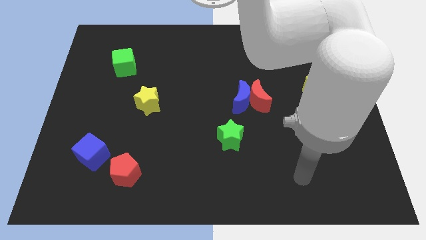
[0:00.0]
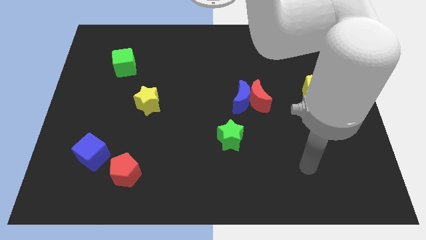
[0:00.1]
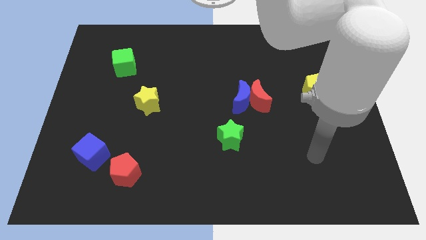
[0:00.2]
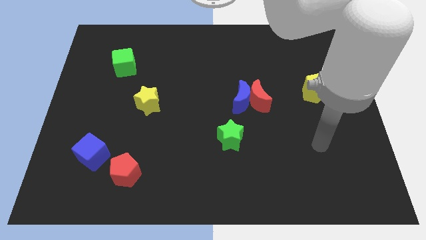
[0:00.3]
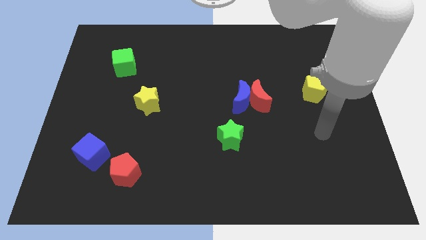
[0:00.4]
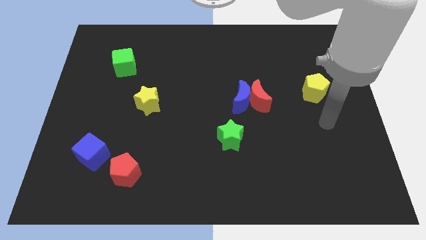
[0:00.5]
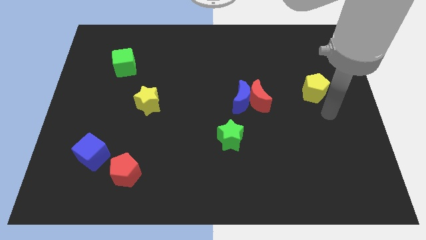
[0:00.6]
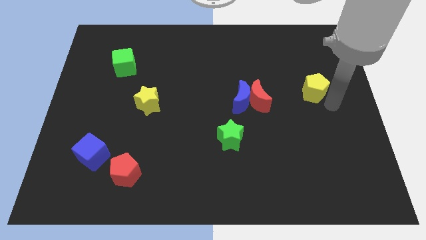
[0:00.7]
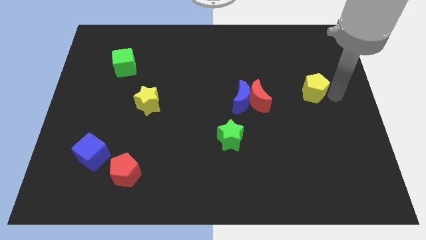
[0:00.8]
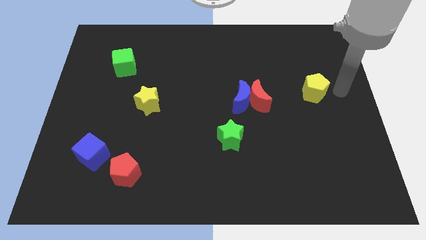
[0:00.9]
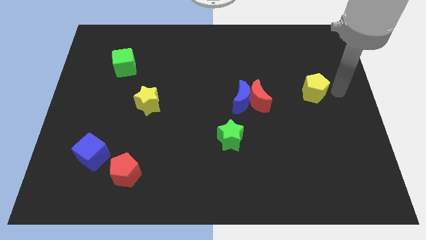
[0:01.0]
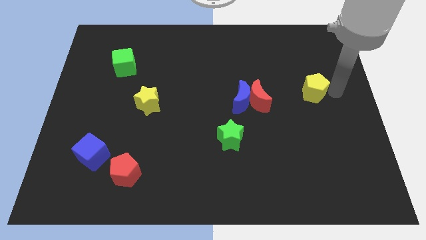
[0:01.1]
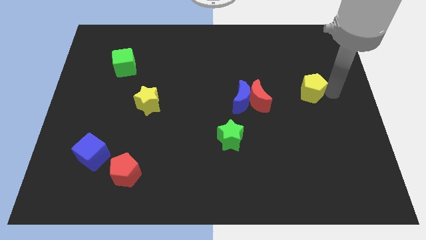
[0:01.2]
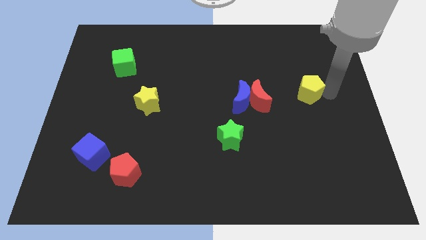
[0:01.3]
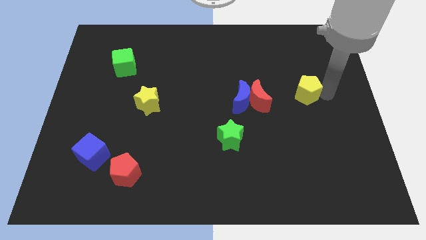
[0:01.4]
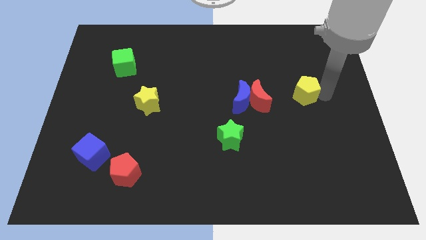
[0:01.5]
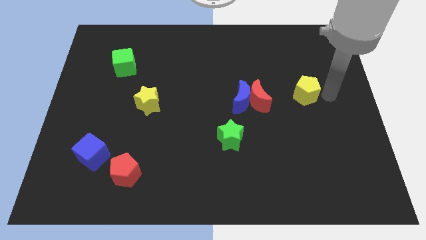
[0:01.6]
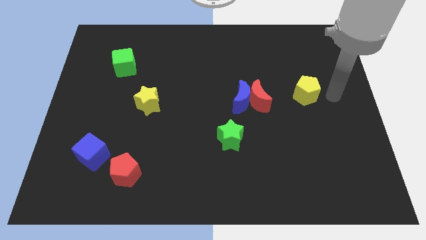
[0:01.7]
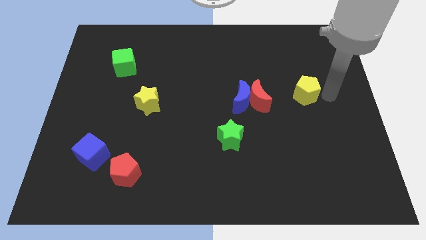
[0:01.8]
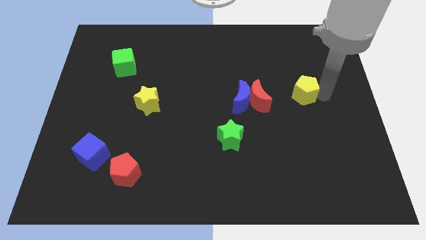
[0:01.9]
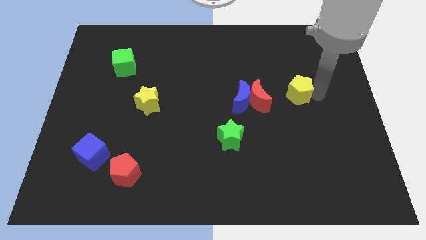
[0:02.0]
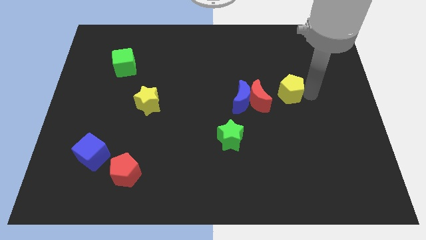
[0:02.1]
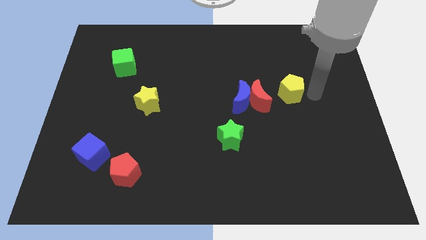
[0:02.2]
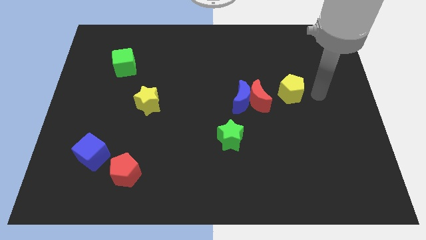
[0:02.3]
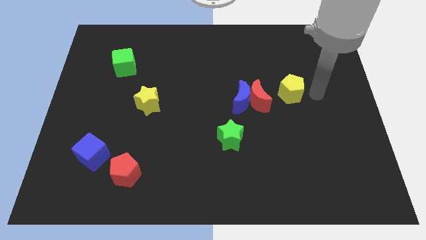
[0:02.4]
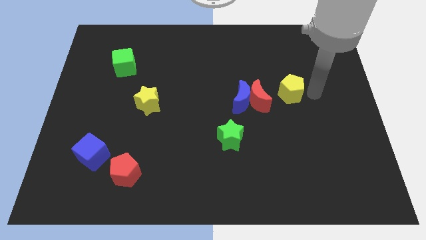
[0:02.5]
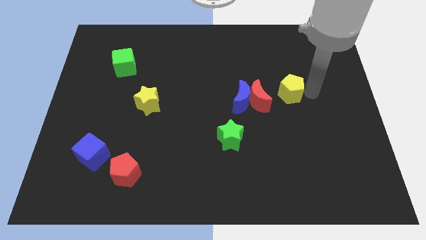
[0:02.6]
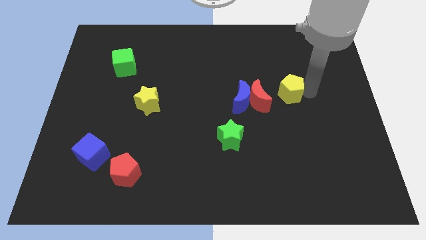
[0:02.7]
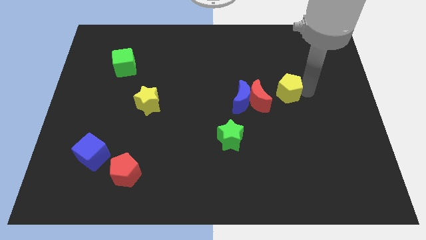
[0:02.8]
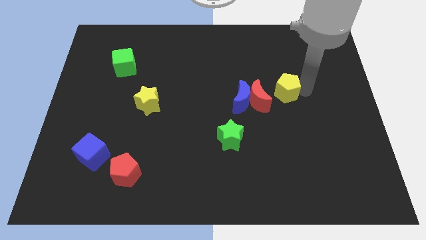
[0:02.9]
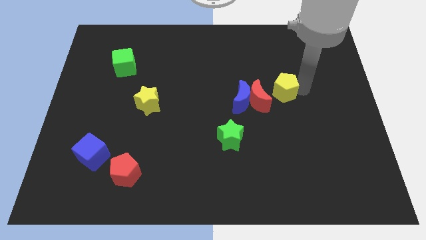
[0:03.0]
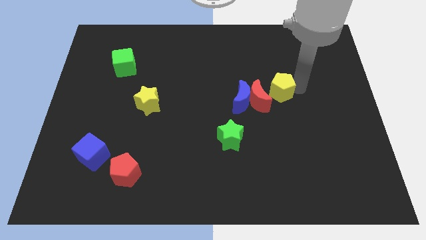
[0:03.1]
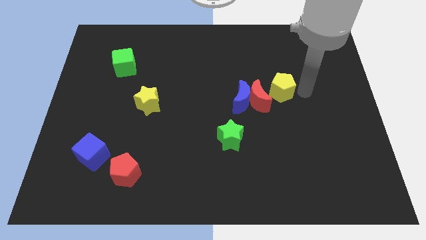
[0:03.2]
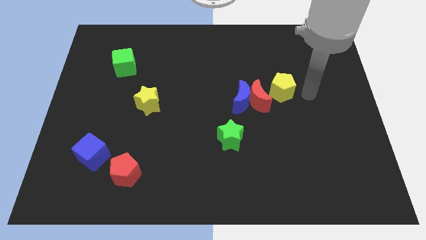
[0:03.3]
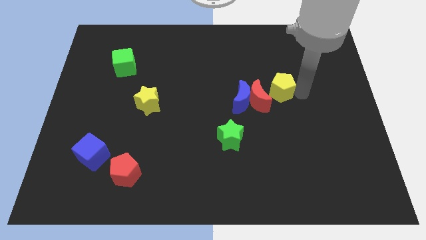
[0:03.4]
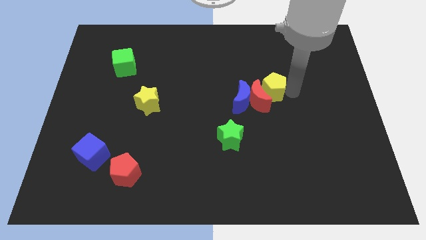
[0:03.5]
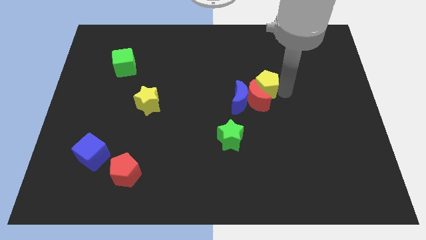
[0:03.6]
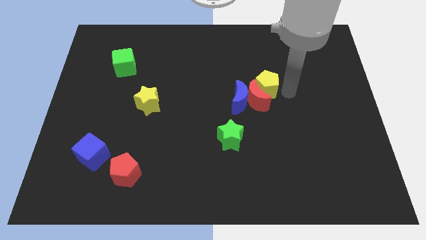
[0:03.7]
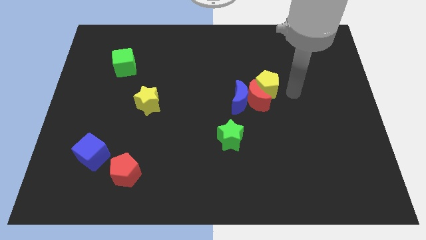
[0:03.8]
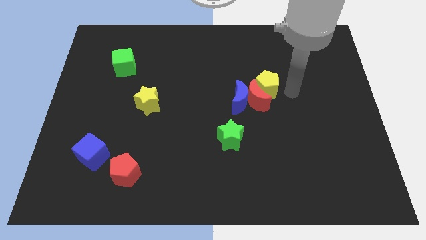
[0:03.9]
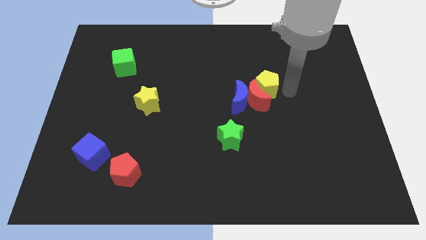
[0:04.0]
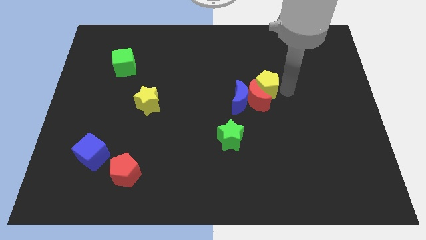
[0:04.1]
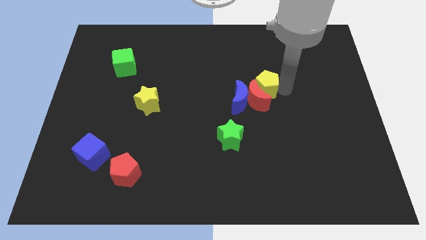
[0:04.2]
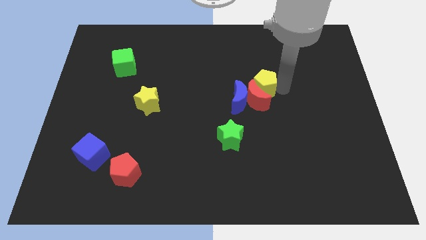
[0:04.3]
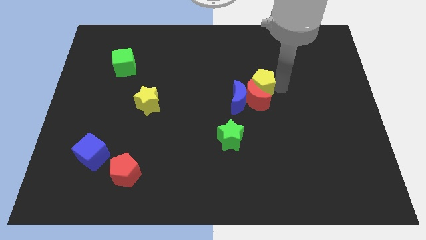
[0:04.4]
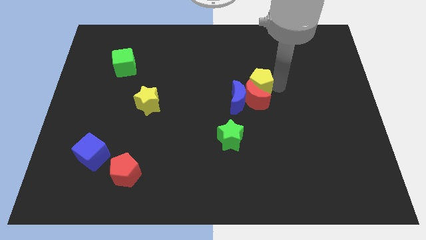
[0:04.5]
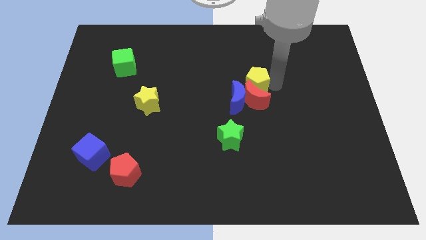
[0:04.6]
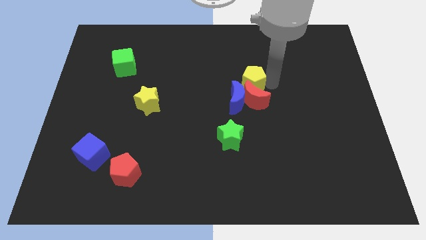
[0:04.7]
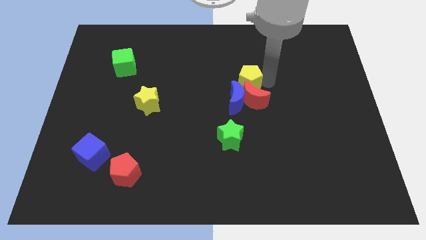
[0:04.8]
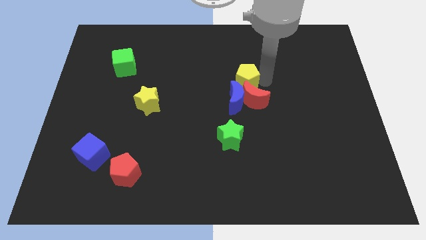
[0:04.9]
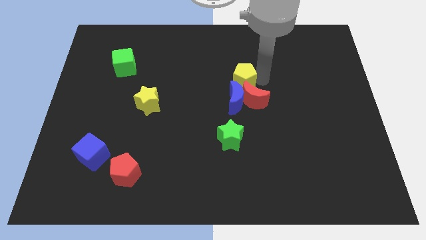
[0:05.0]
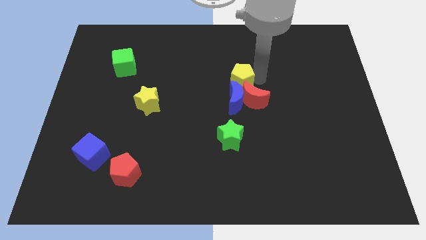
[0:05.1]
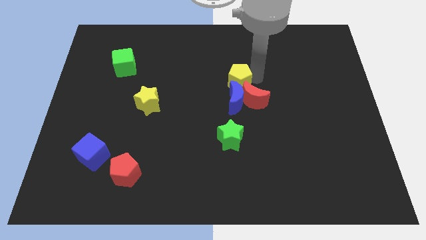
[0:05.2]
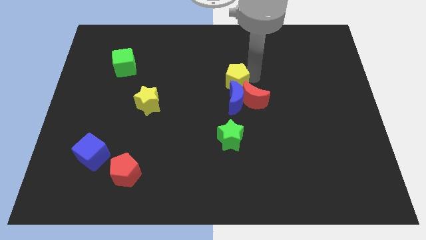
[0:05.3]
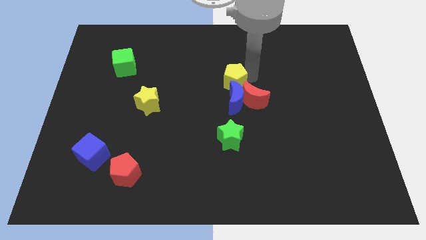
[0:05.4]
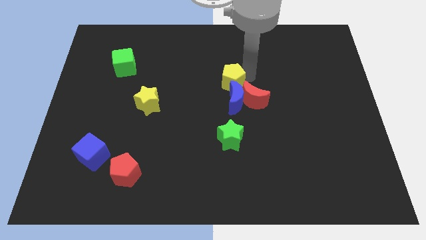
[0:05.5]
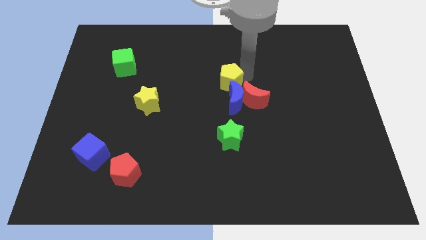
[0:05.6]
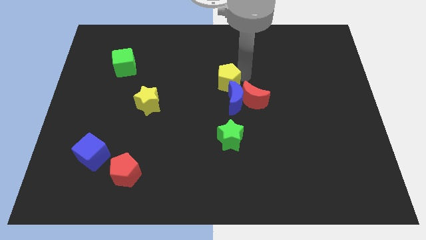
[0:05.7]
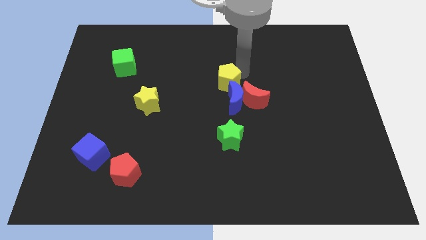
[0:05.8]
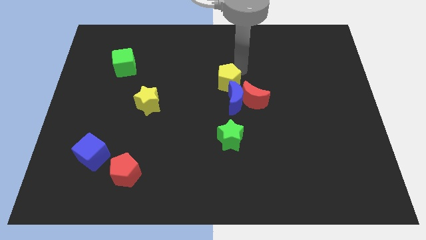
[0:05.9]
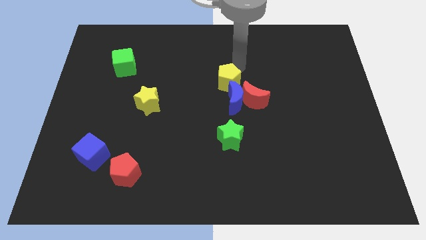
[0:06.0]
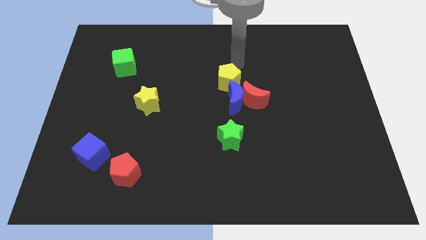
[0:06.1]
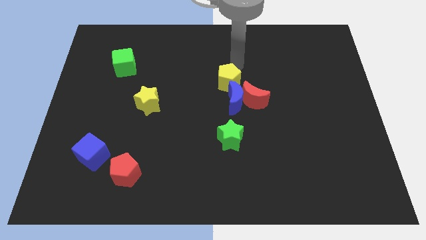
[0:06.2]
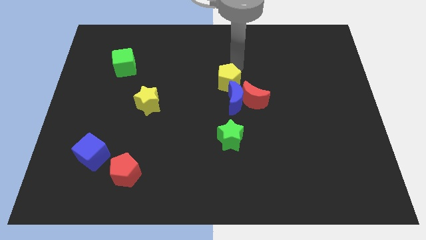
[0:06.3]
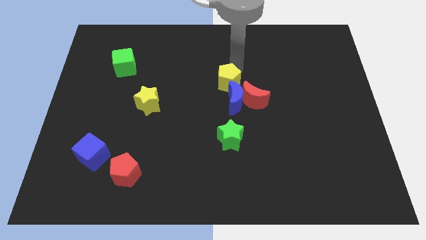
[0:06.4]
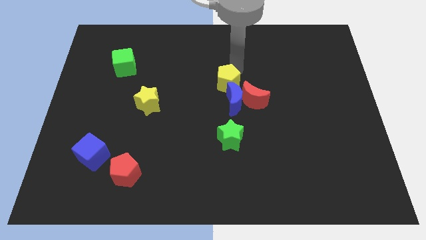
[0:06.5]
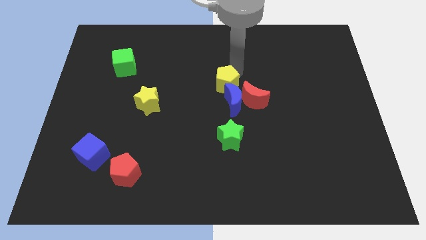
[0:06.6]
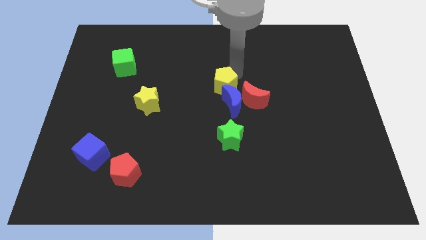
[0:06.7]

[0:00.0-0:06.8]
slide the yellow pentagon to the top side of the green star

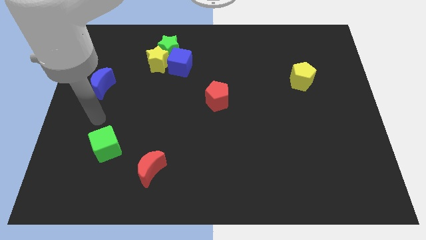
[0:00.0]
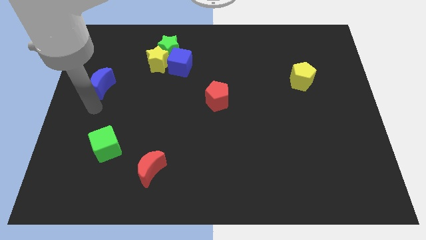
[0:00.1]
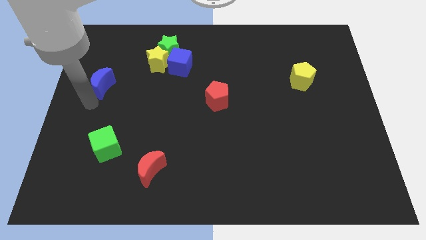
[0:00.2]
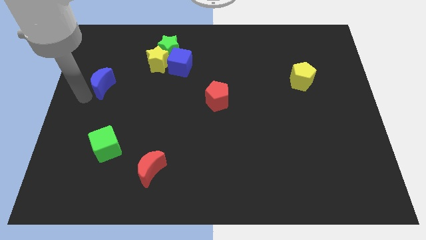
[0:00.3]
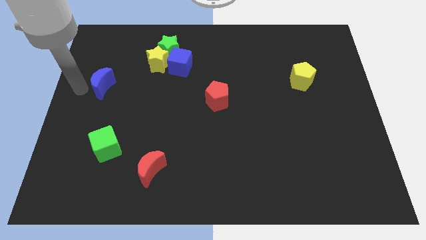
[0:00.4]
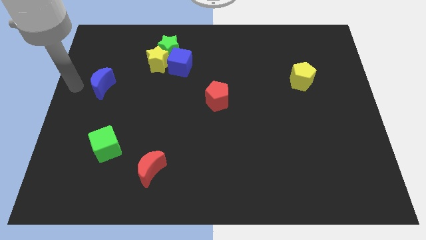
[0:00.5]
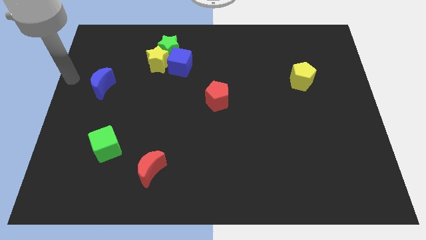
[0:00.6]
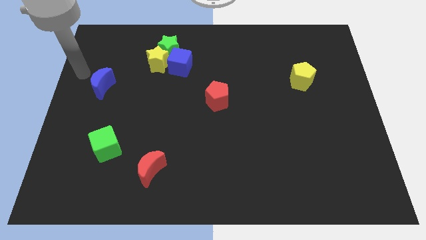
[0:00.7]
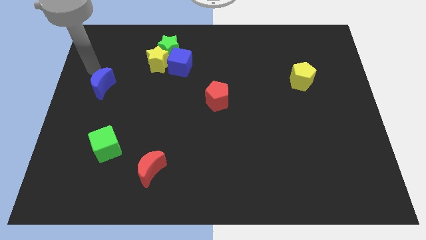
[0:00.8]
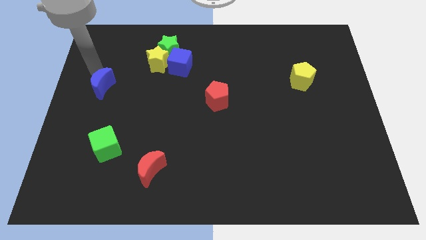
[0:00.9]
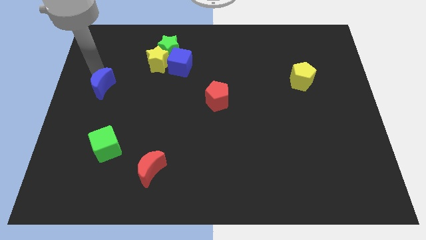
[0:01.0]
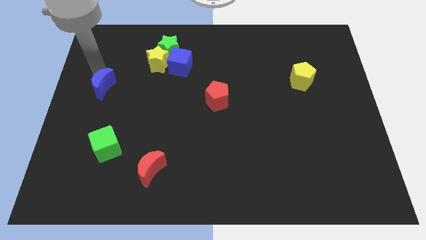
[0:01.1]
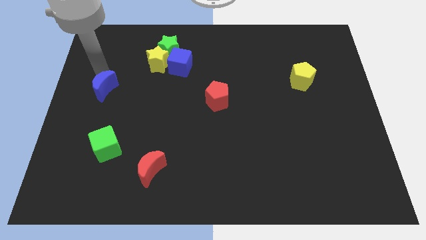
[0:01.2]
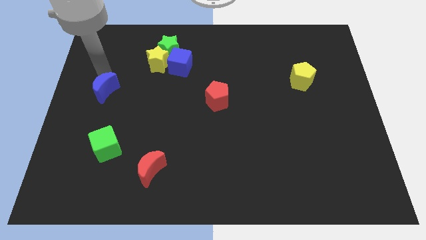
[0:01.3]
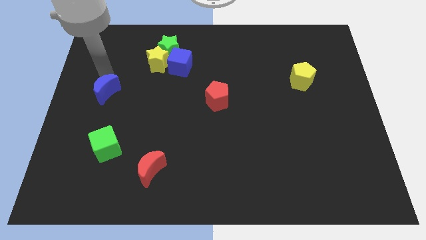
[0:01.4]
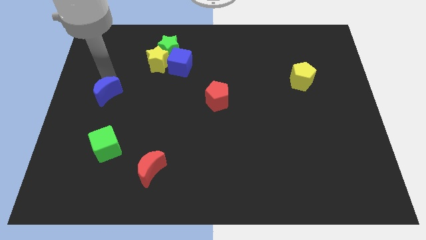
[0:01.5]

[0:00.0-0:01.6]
put the blue moon above the green cube
